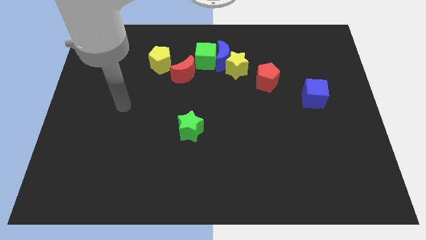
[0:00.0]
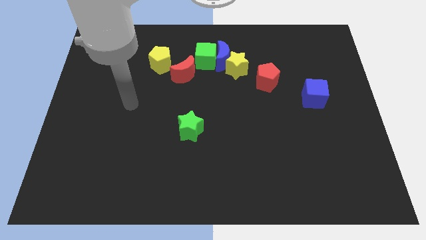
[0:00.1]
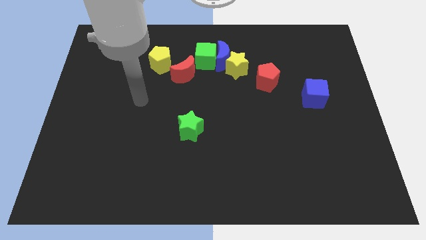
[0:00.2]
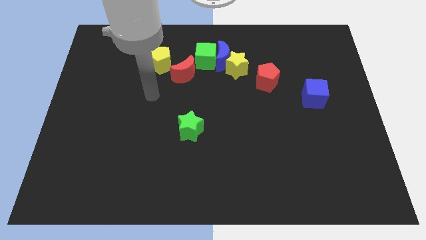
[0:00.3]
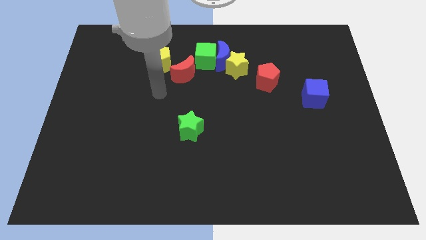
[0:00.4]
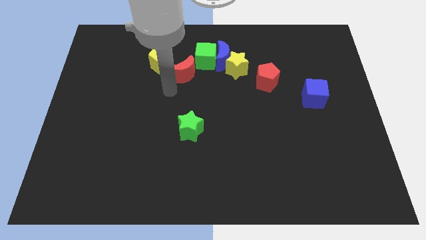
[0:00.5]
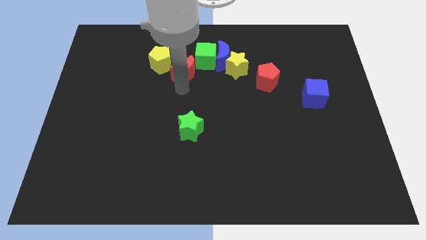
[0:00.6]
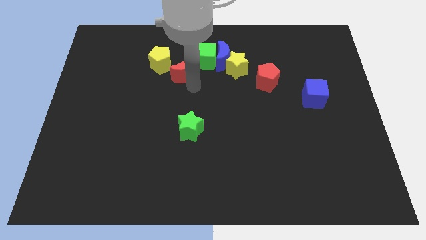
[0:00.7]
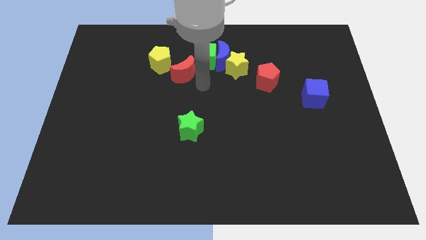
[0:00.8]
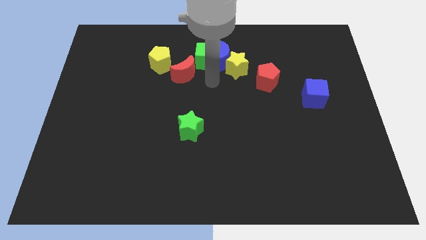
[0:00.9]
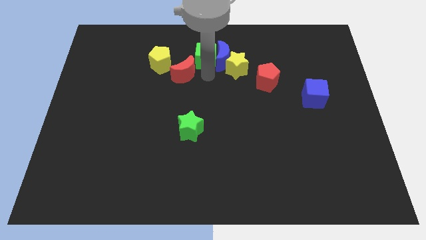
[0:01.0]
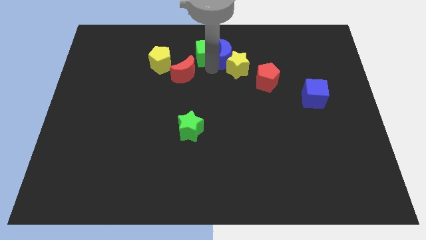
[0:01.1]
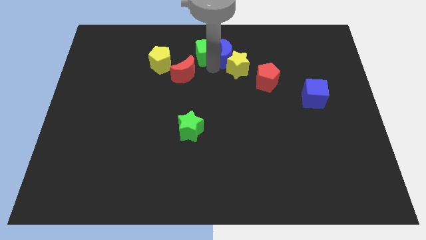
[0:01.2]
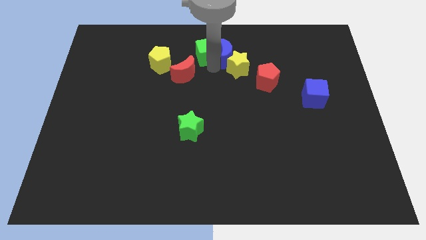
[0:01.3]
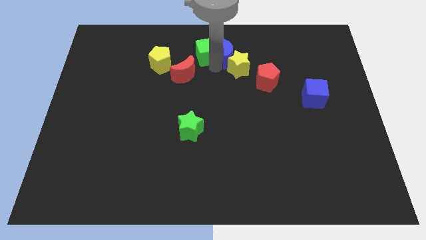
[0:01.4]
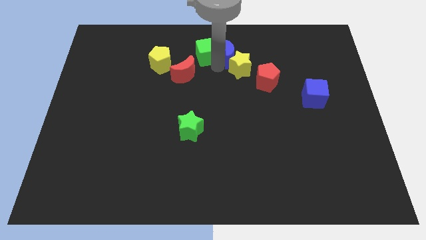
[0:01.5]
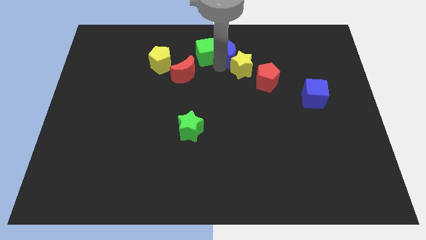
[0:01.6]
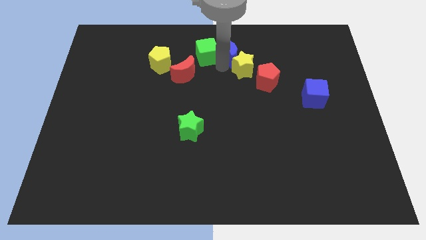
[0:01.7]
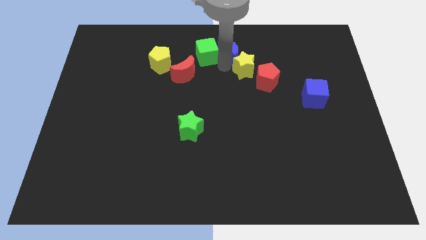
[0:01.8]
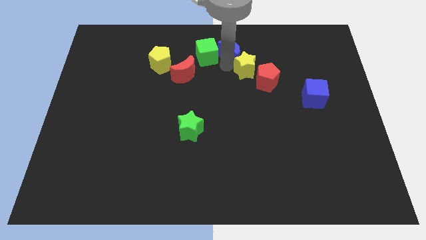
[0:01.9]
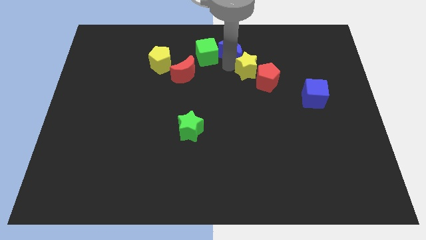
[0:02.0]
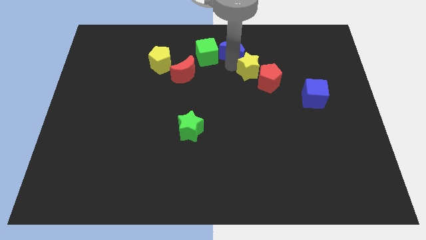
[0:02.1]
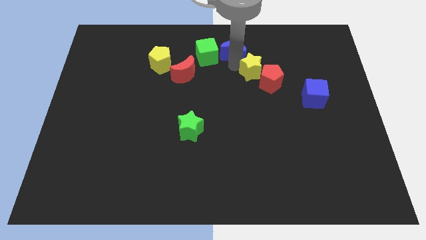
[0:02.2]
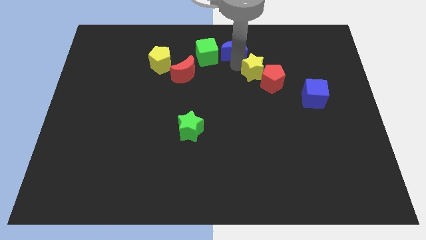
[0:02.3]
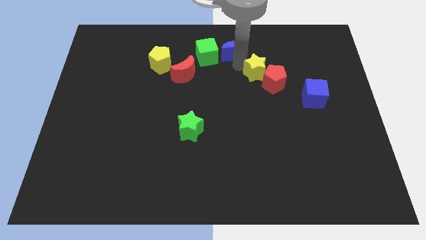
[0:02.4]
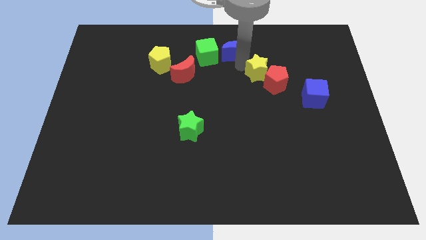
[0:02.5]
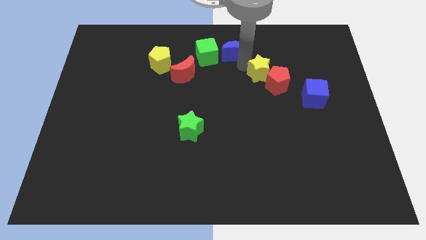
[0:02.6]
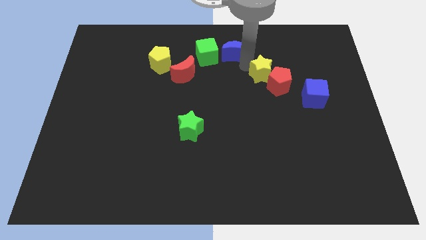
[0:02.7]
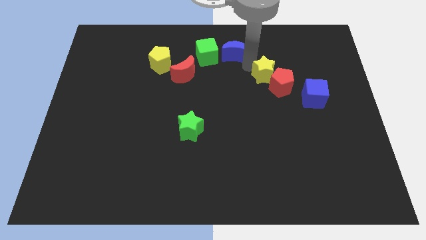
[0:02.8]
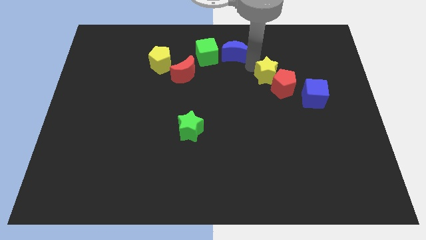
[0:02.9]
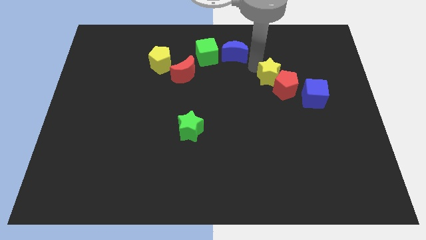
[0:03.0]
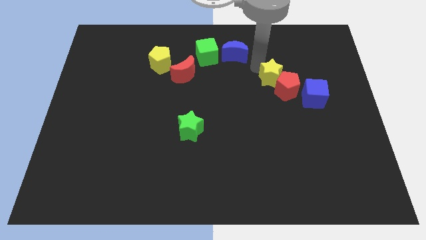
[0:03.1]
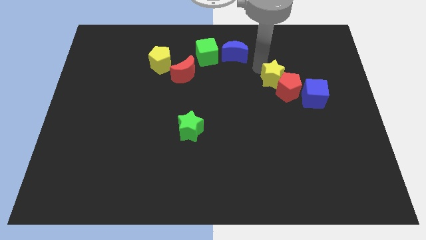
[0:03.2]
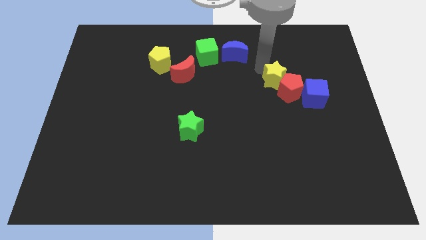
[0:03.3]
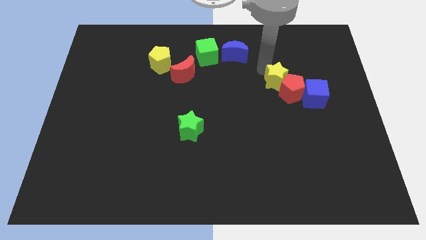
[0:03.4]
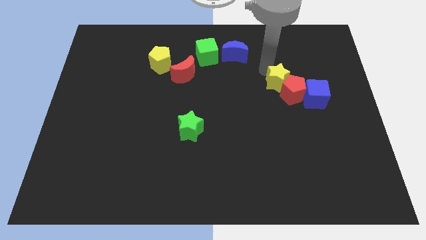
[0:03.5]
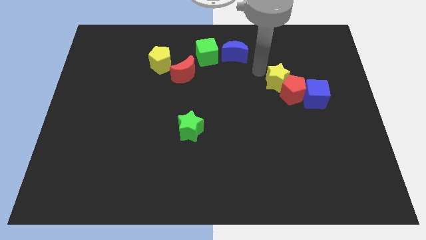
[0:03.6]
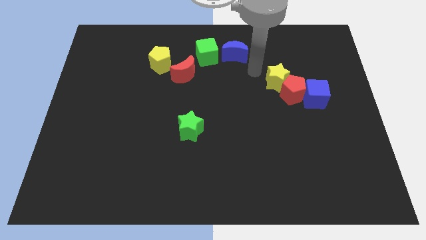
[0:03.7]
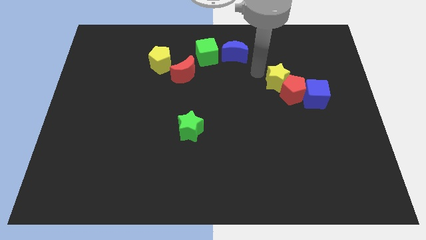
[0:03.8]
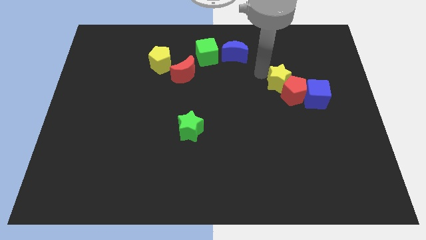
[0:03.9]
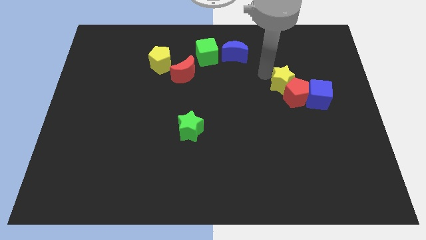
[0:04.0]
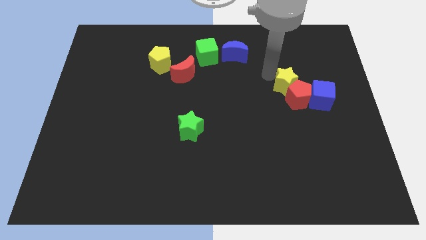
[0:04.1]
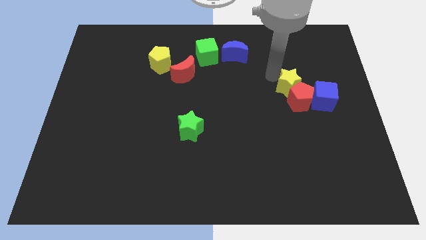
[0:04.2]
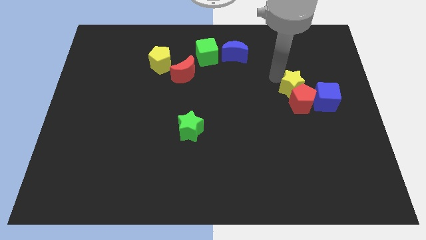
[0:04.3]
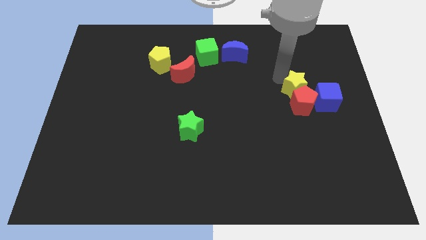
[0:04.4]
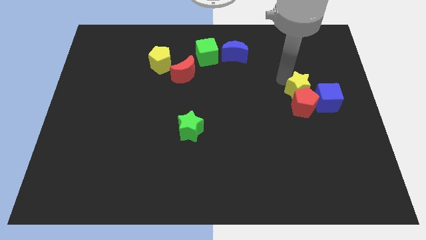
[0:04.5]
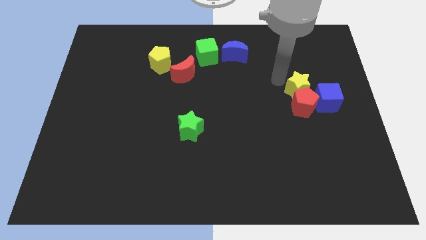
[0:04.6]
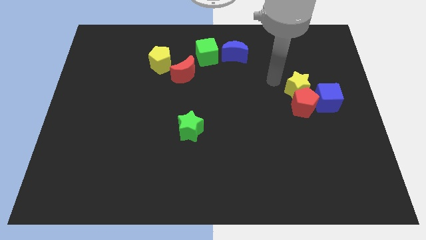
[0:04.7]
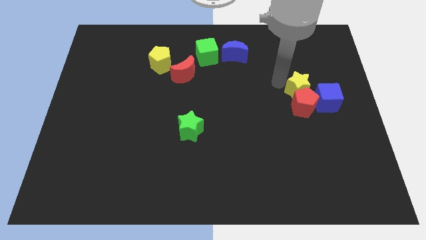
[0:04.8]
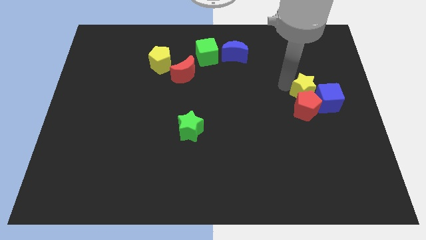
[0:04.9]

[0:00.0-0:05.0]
slide the yellow star next to the blue cube

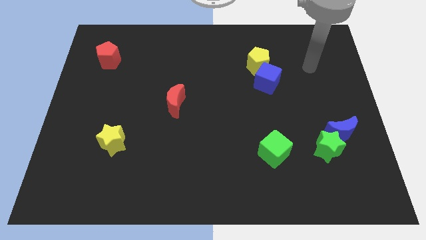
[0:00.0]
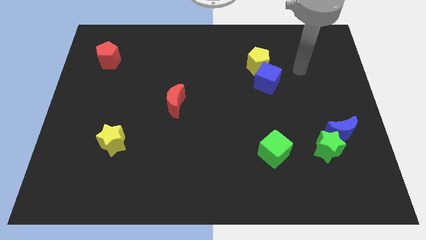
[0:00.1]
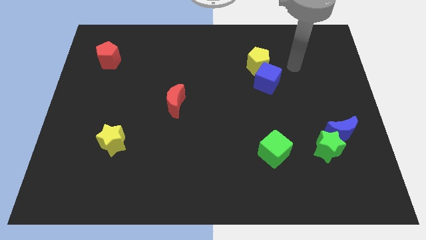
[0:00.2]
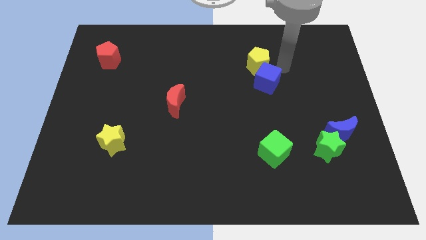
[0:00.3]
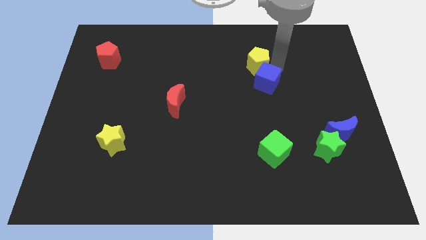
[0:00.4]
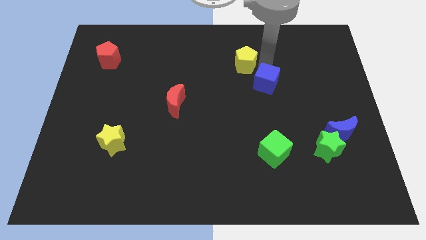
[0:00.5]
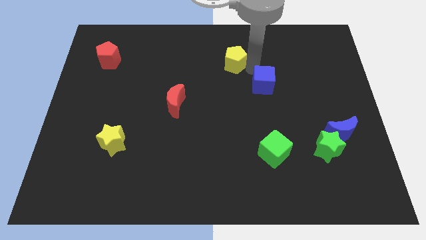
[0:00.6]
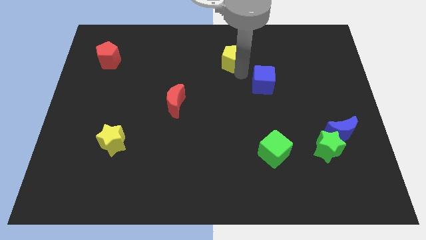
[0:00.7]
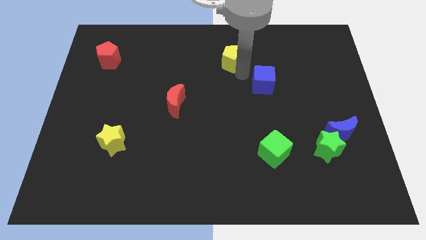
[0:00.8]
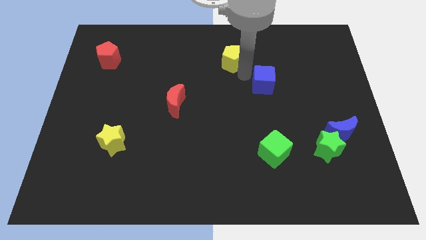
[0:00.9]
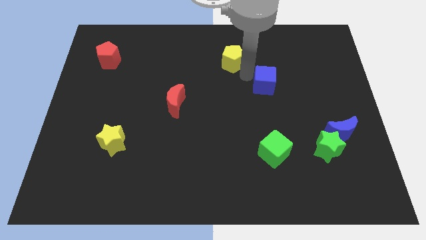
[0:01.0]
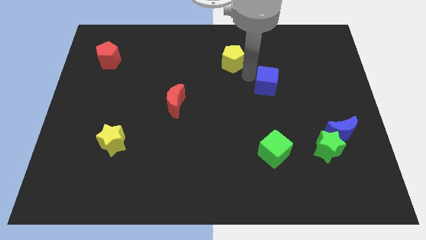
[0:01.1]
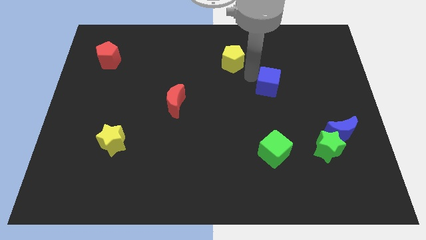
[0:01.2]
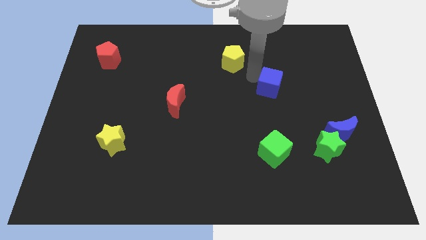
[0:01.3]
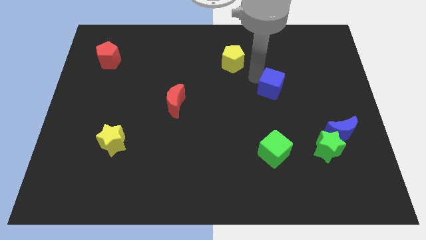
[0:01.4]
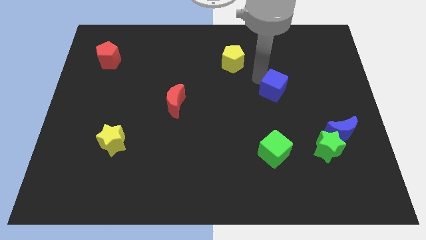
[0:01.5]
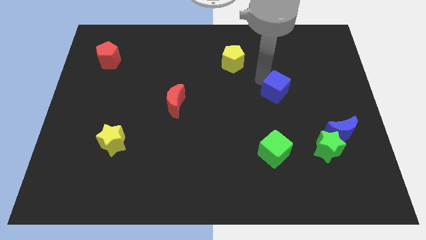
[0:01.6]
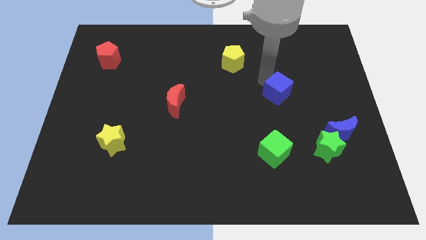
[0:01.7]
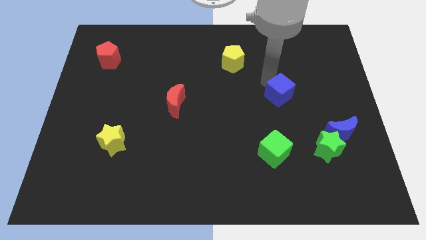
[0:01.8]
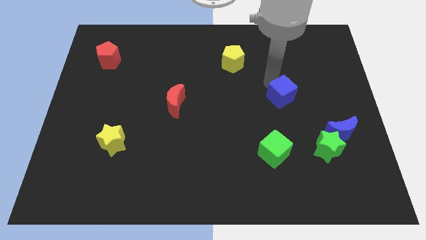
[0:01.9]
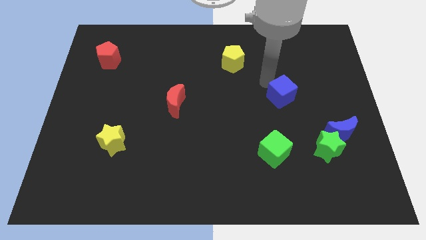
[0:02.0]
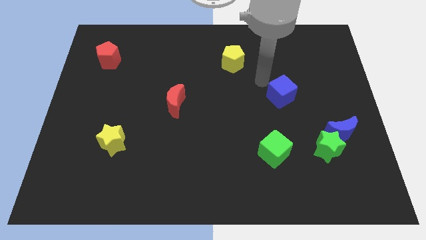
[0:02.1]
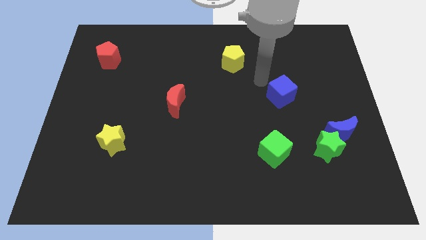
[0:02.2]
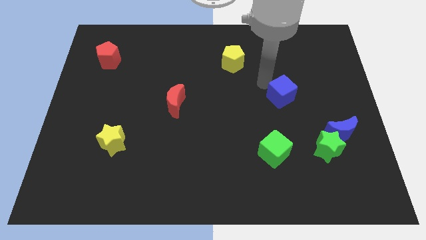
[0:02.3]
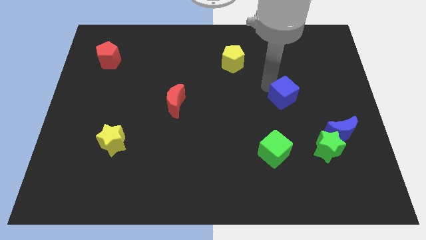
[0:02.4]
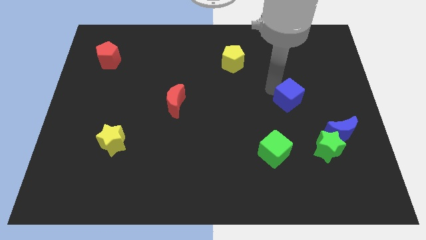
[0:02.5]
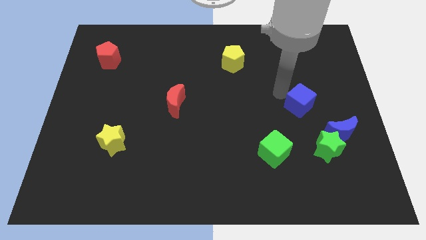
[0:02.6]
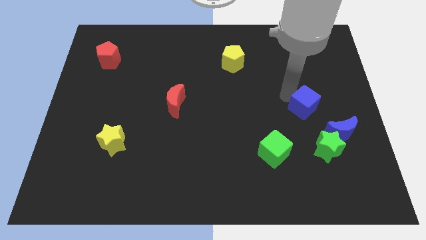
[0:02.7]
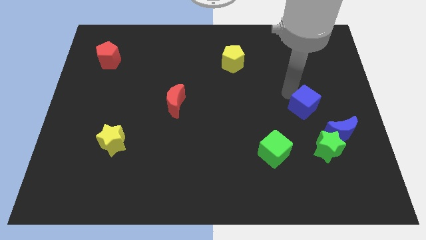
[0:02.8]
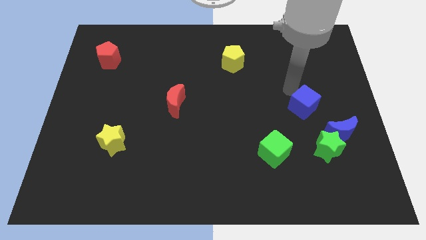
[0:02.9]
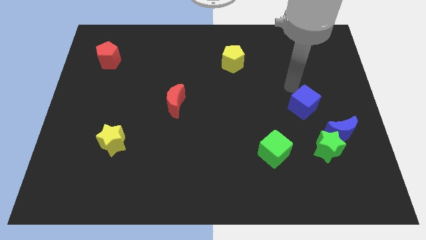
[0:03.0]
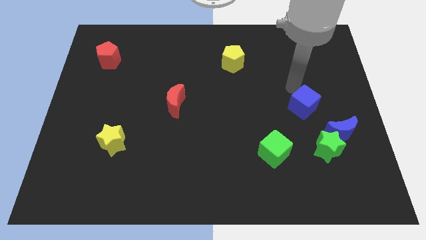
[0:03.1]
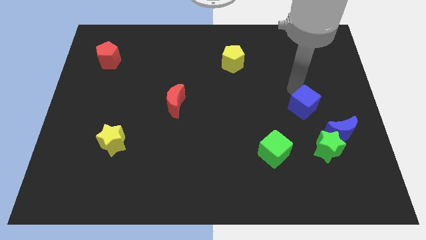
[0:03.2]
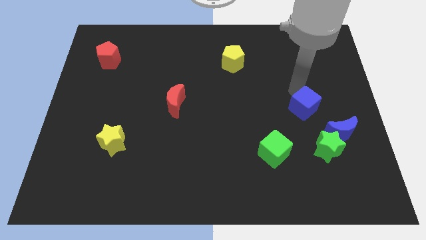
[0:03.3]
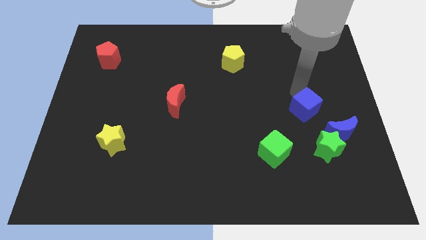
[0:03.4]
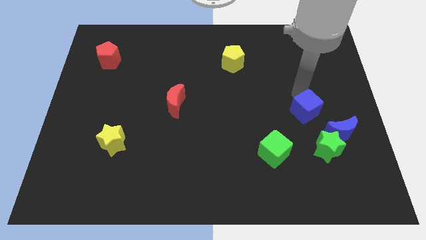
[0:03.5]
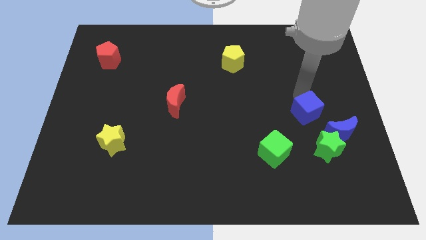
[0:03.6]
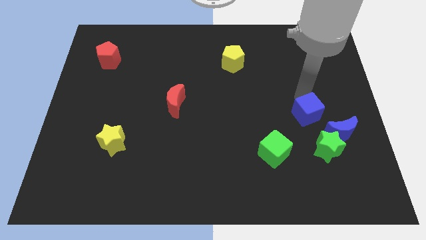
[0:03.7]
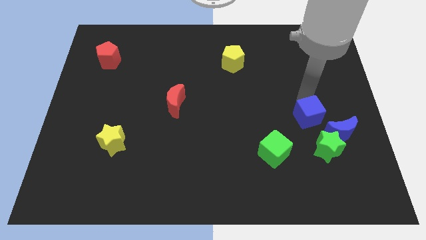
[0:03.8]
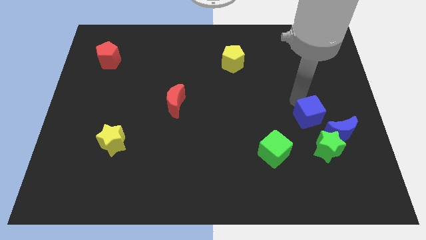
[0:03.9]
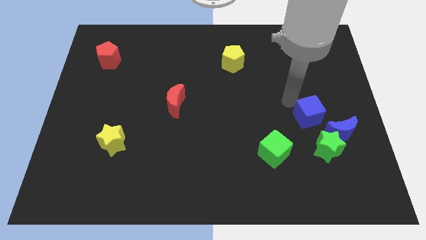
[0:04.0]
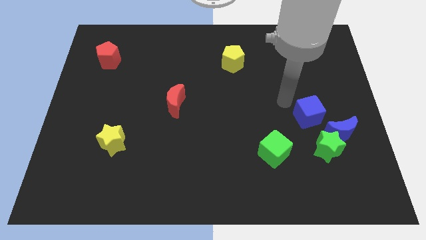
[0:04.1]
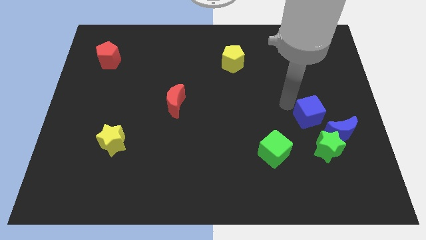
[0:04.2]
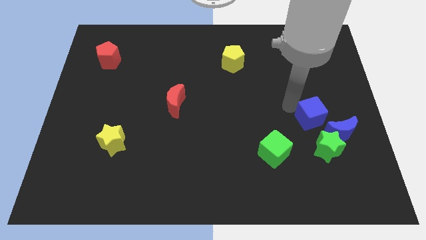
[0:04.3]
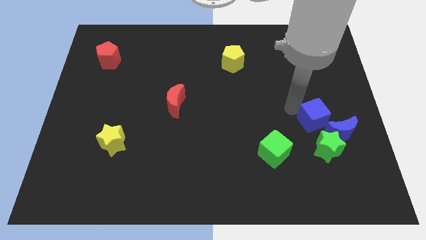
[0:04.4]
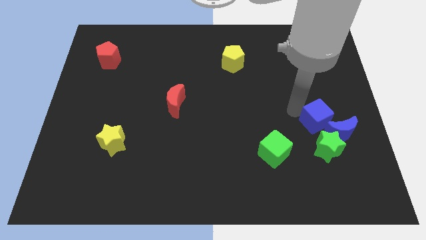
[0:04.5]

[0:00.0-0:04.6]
slide the blue cube next to the blue moon
